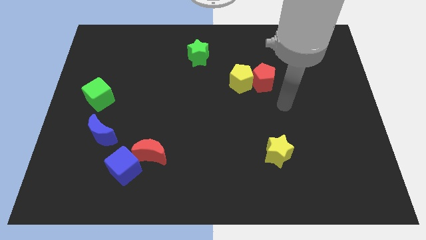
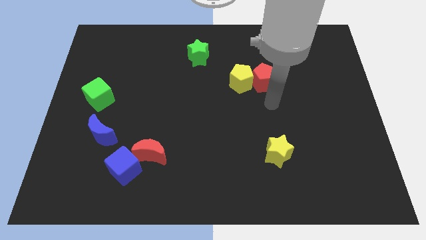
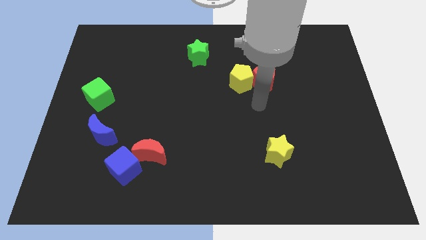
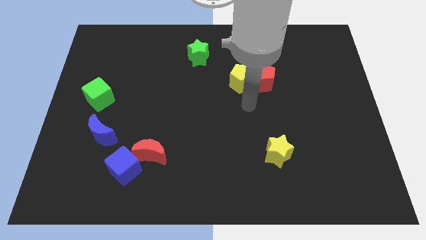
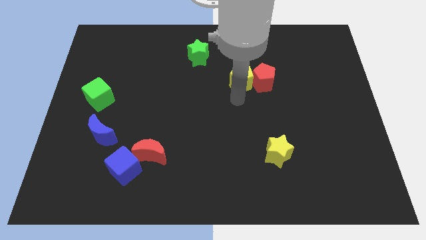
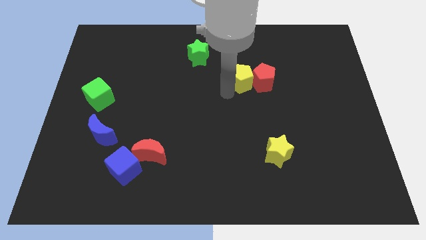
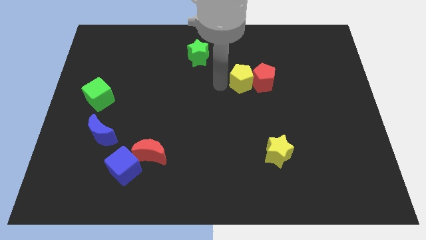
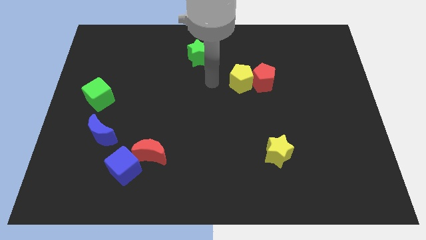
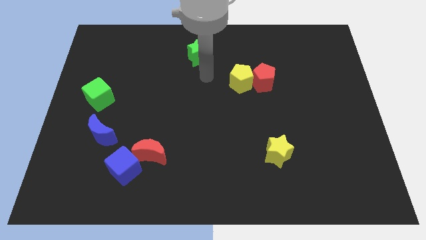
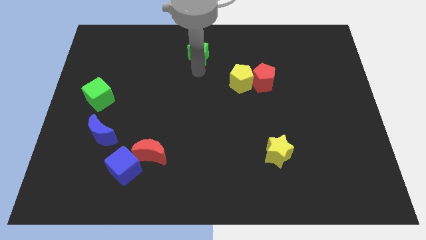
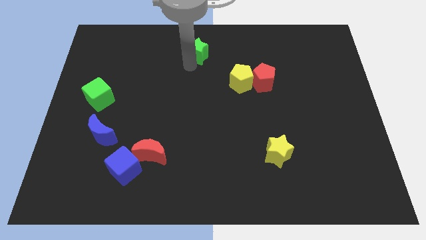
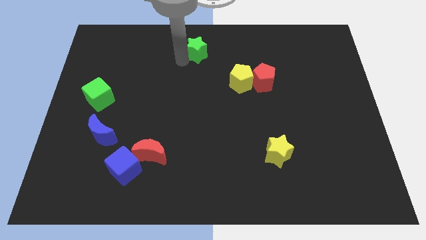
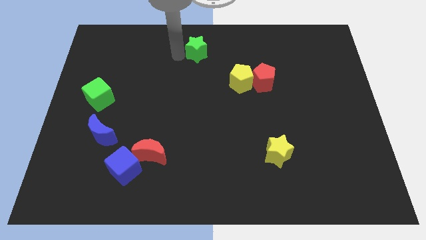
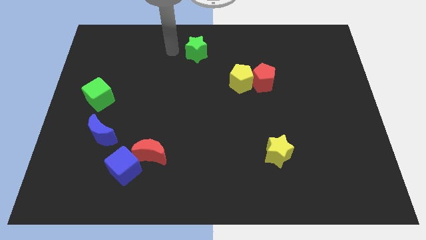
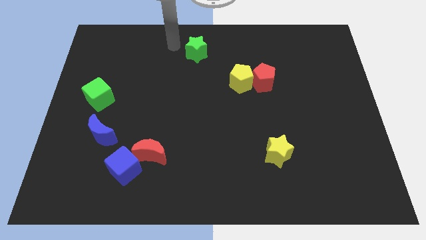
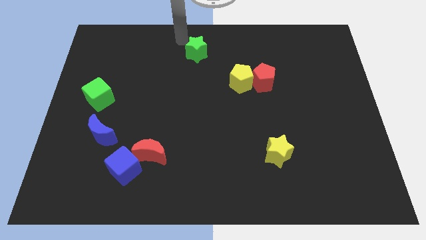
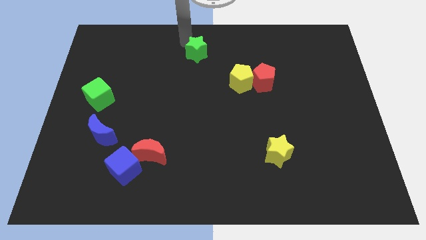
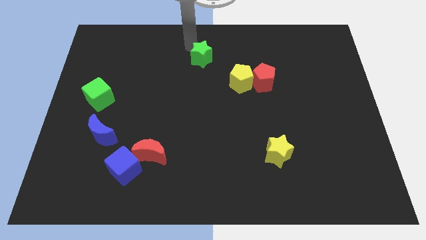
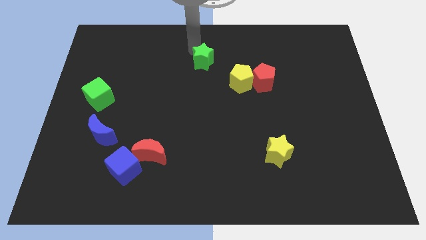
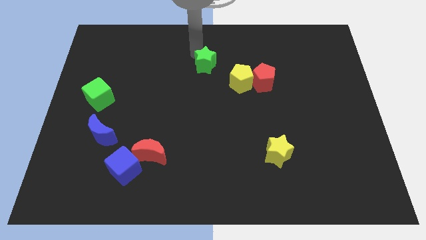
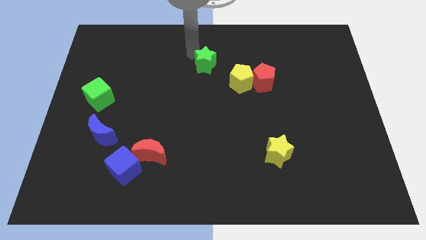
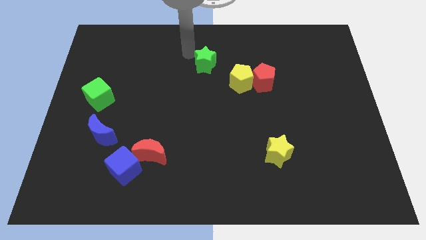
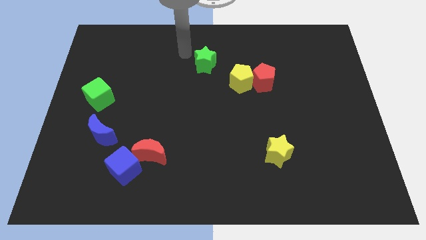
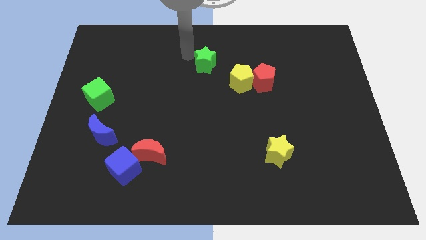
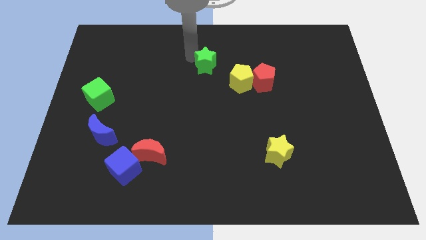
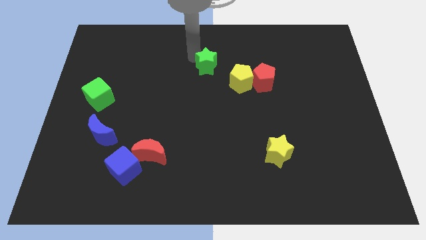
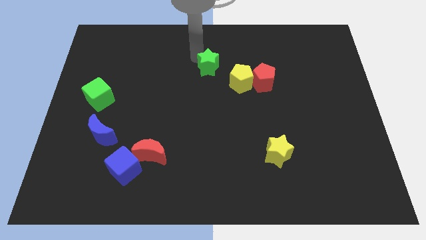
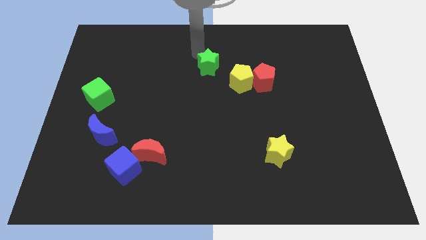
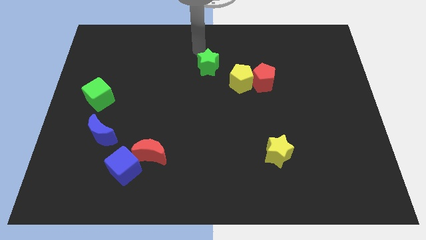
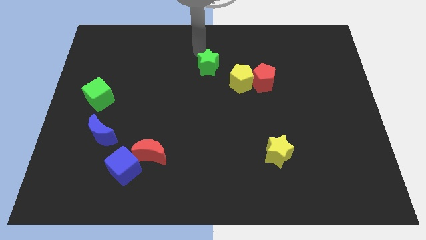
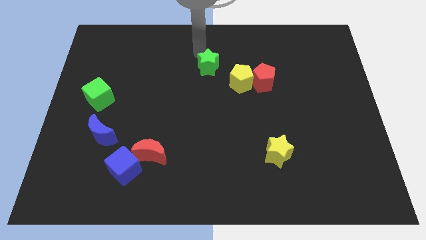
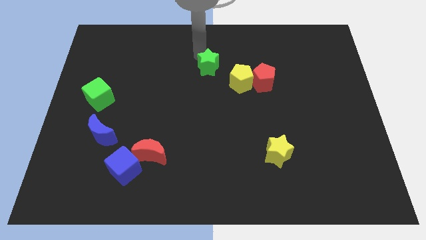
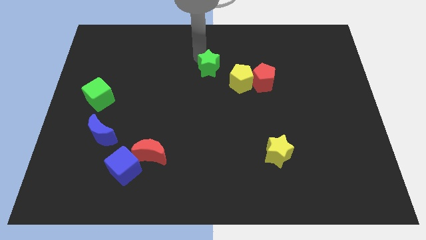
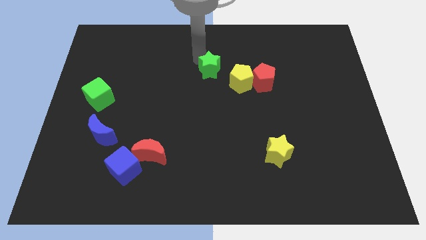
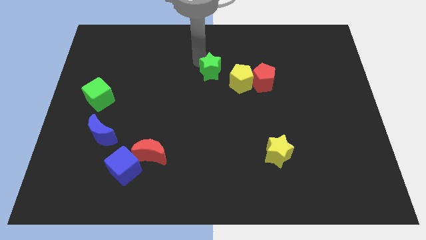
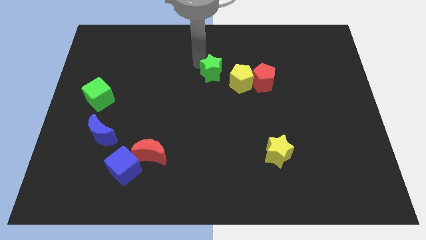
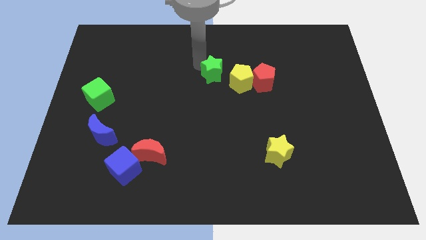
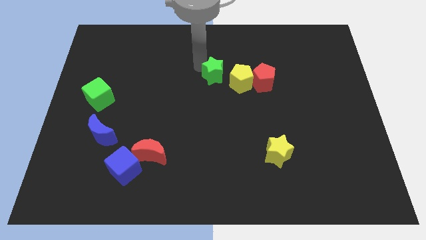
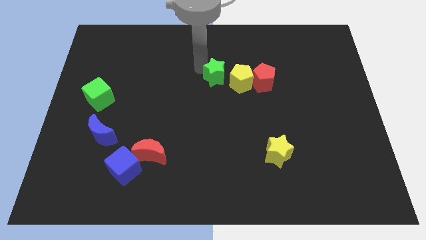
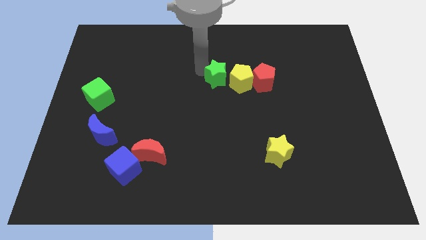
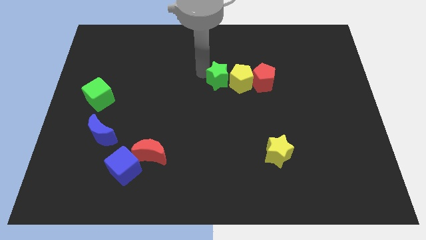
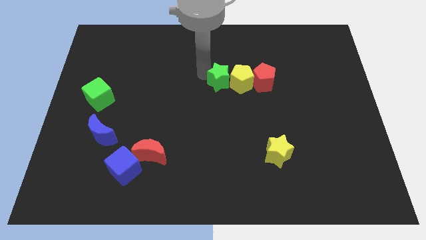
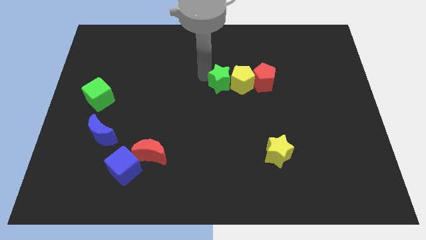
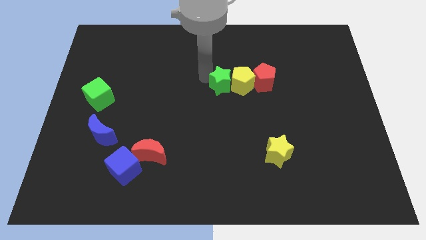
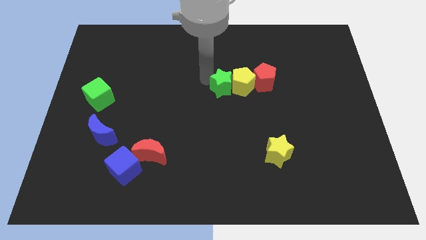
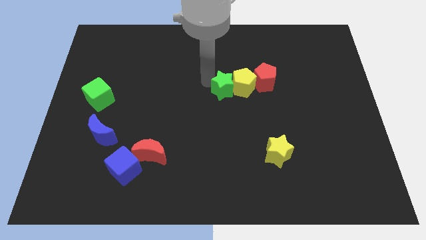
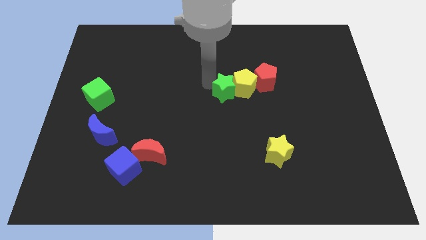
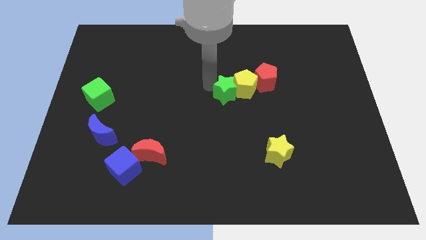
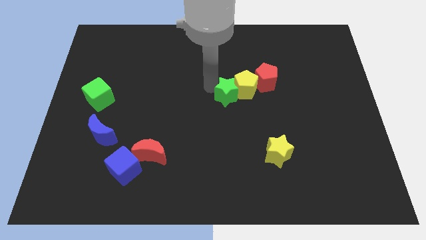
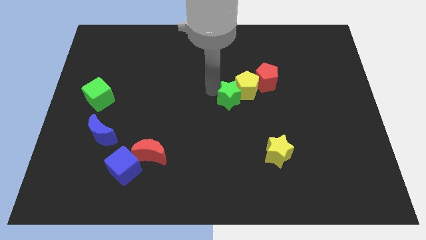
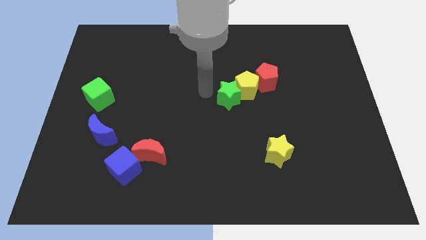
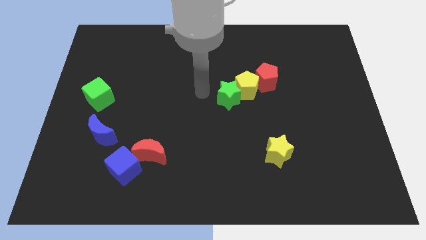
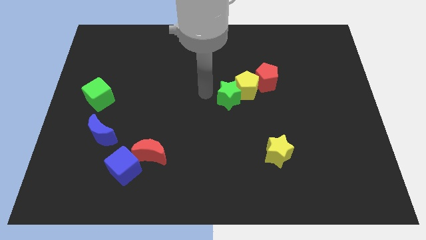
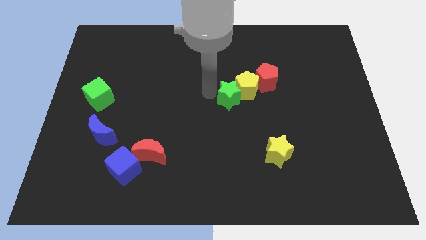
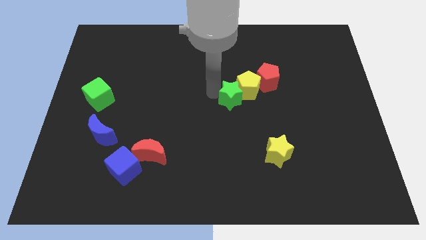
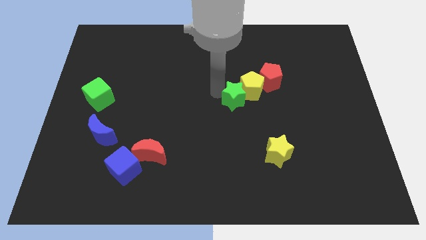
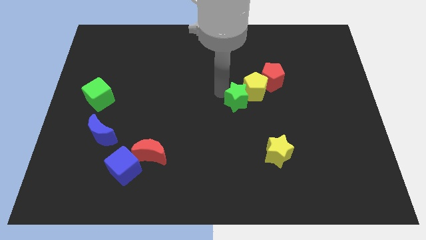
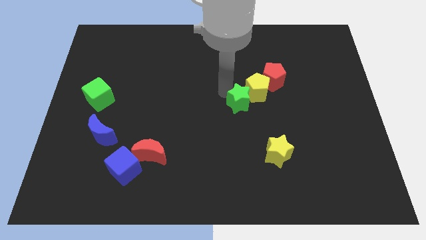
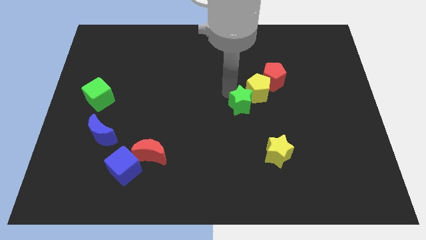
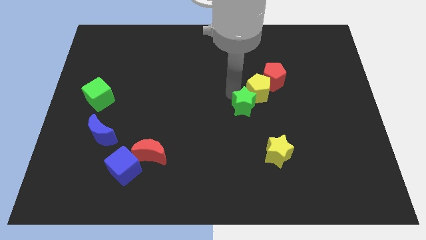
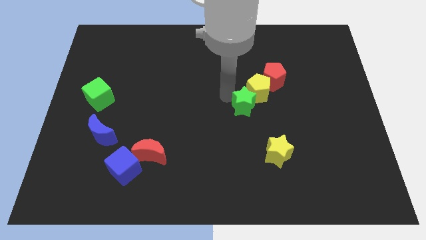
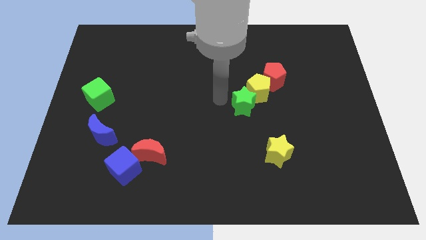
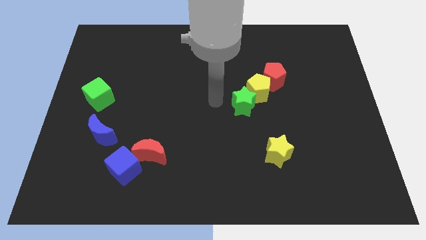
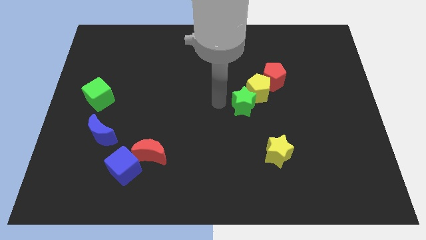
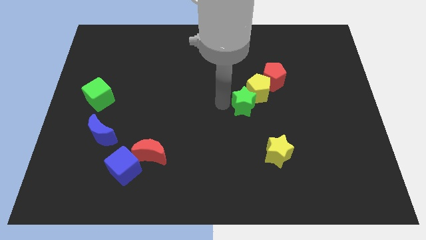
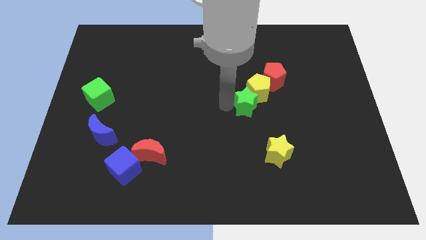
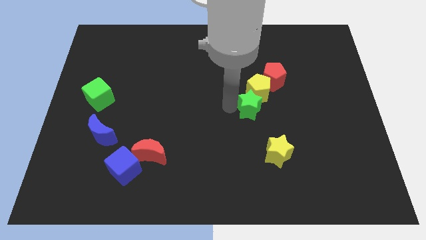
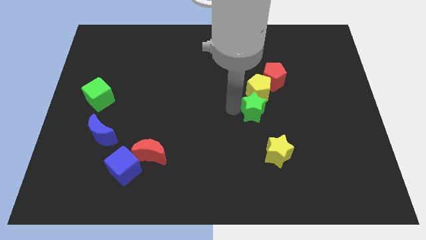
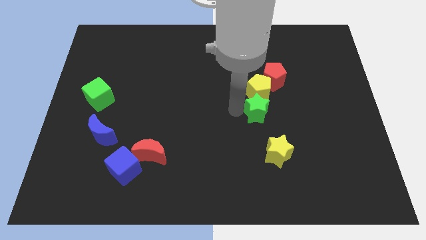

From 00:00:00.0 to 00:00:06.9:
move the green star diagonally down and to the right of the yellow pentagon
